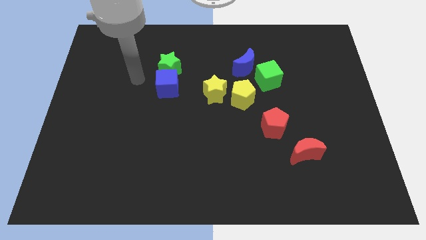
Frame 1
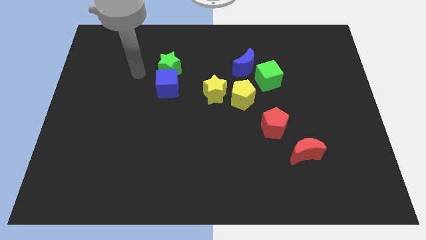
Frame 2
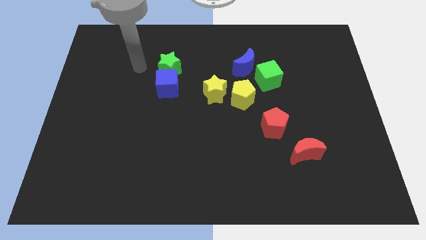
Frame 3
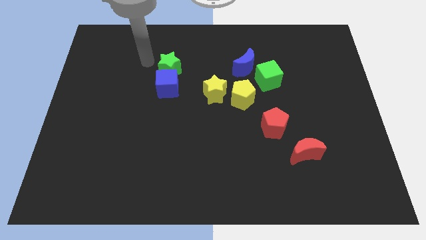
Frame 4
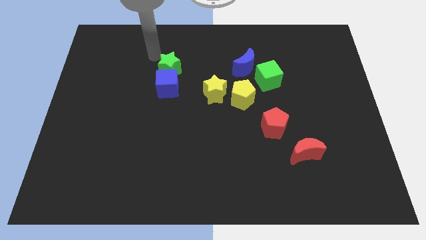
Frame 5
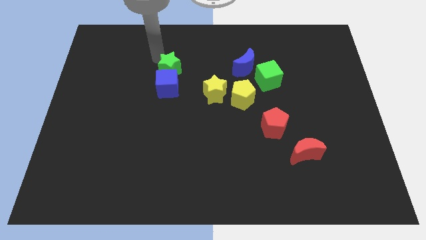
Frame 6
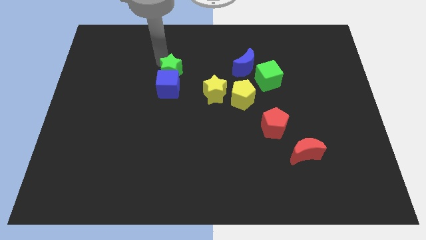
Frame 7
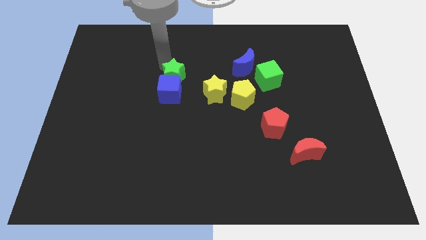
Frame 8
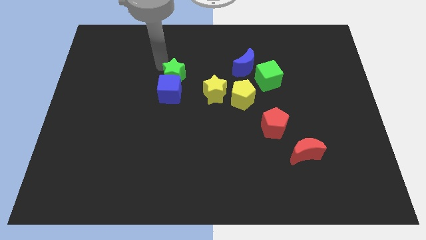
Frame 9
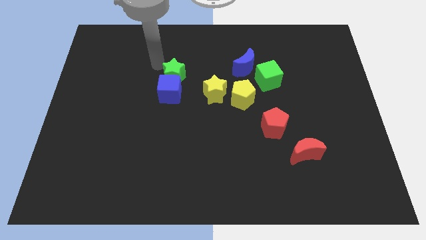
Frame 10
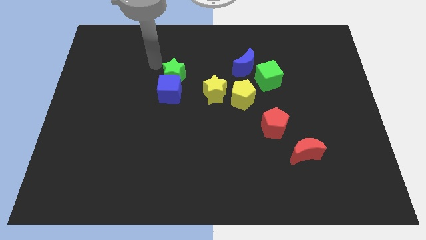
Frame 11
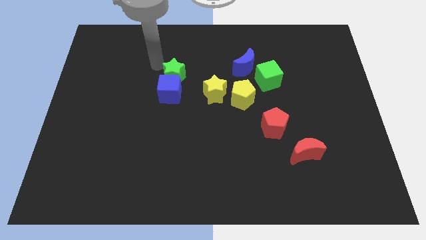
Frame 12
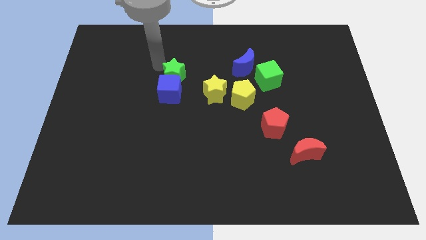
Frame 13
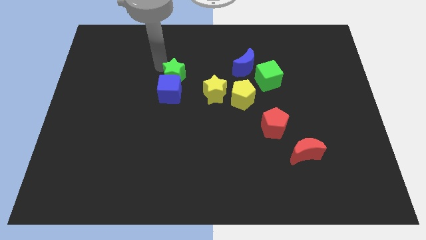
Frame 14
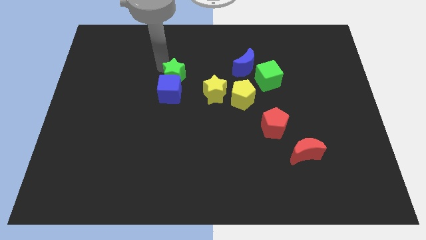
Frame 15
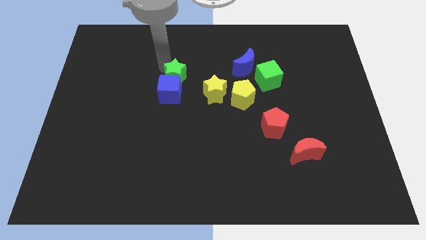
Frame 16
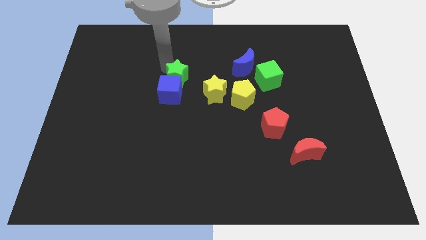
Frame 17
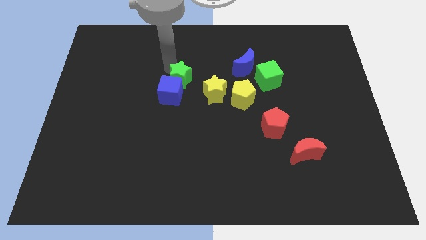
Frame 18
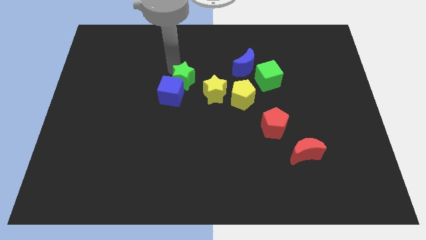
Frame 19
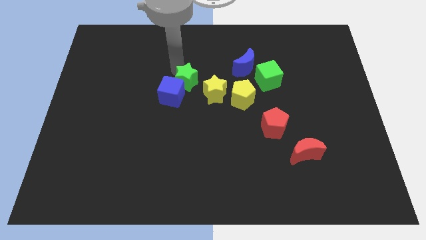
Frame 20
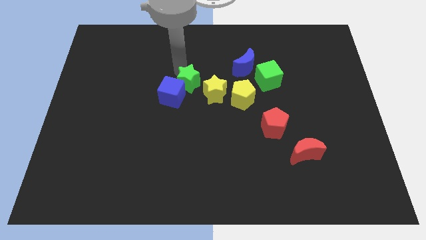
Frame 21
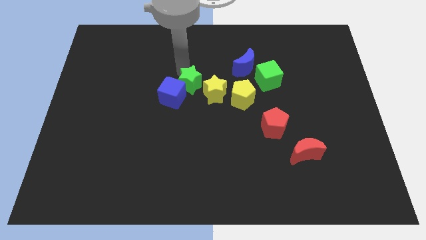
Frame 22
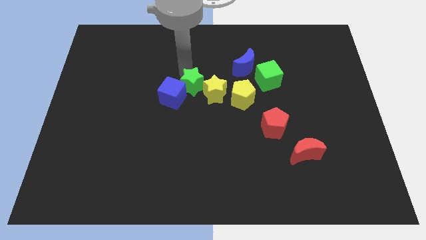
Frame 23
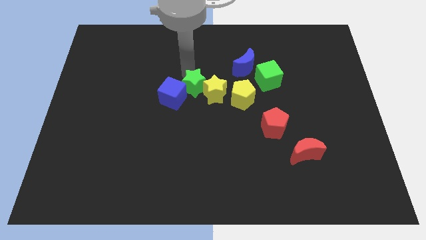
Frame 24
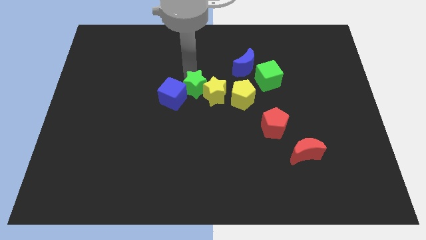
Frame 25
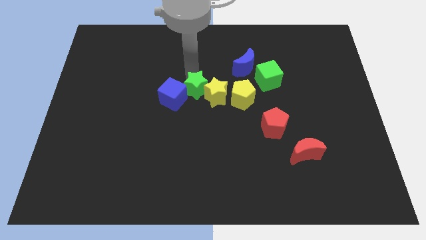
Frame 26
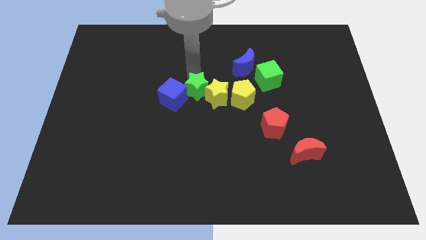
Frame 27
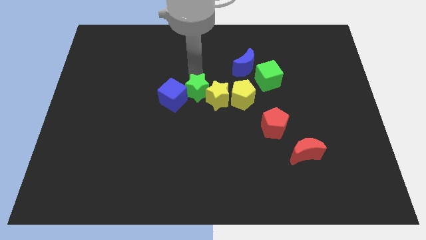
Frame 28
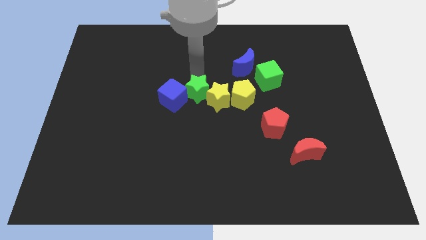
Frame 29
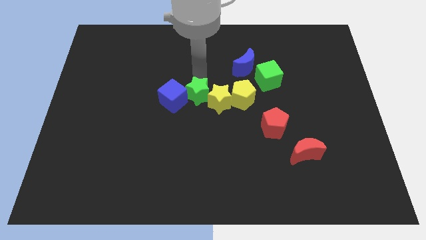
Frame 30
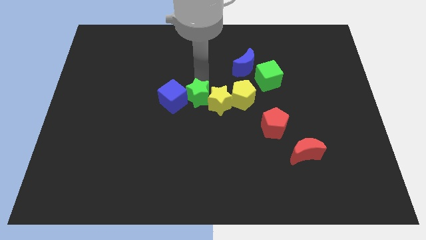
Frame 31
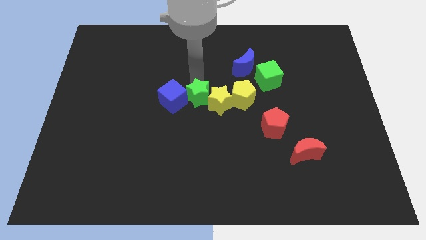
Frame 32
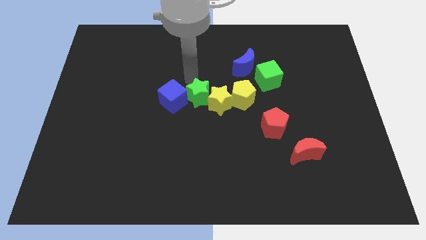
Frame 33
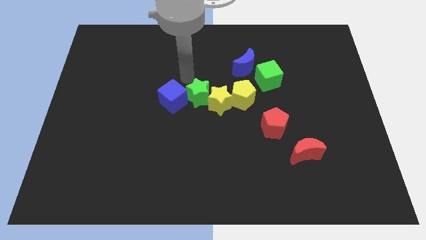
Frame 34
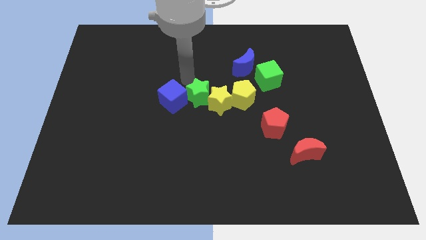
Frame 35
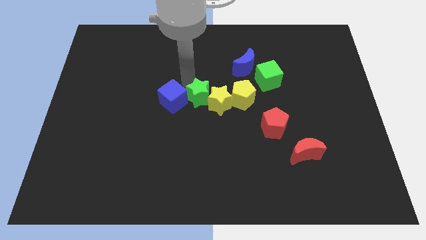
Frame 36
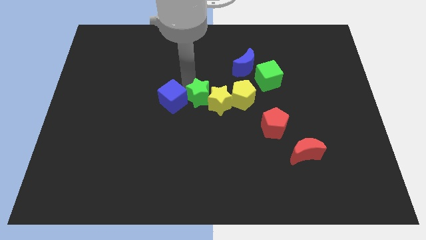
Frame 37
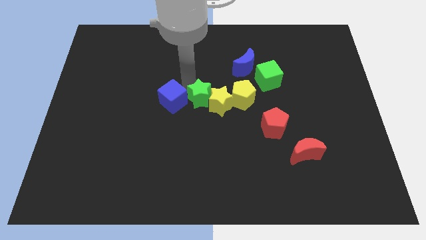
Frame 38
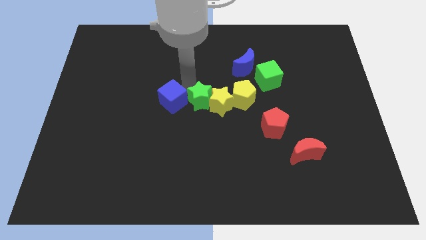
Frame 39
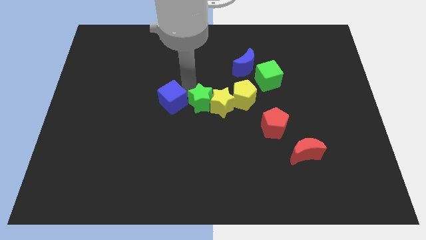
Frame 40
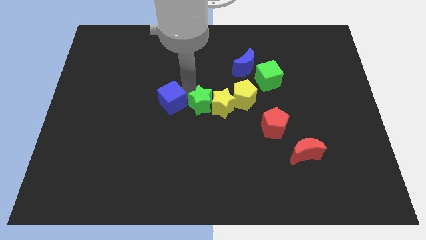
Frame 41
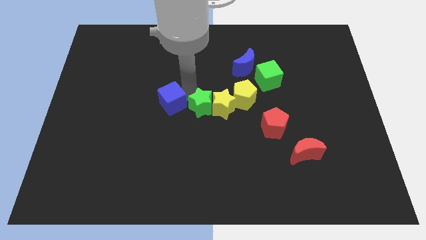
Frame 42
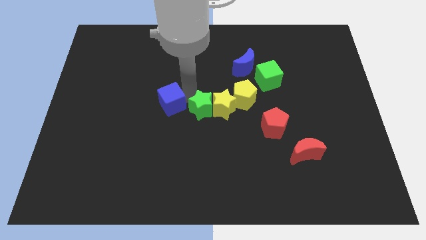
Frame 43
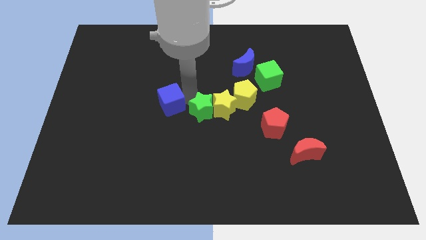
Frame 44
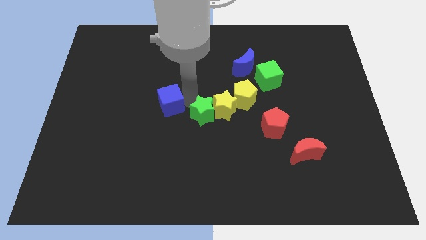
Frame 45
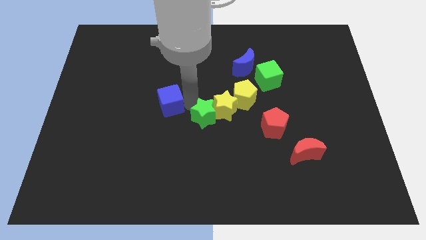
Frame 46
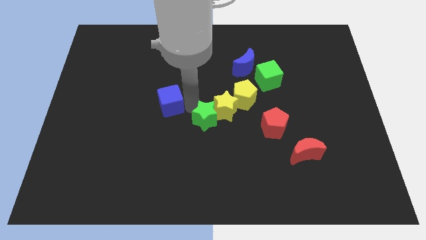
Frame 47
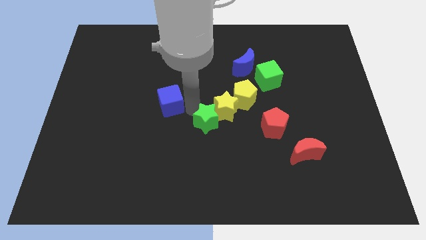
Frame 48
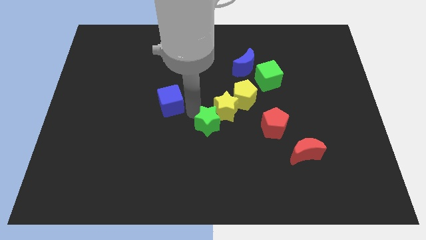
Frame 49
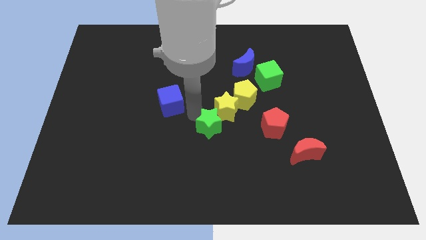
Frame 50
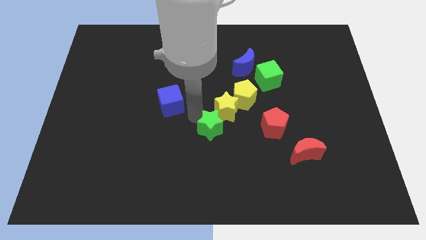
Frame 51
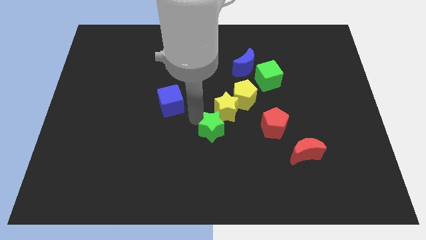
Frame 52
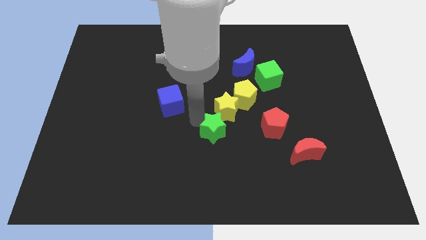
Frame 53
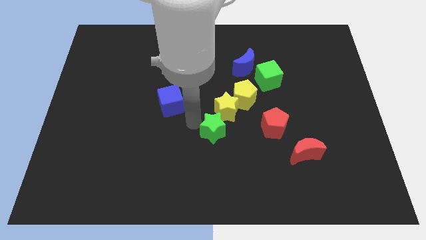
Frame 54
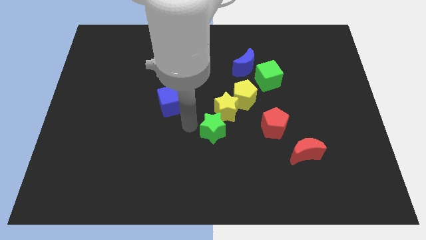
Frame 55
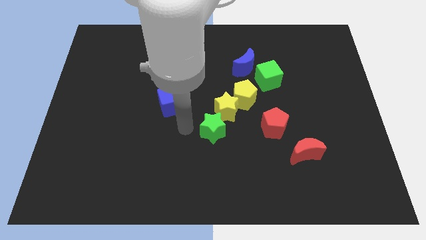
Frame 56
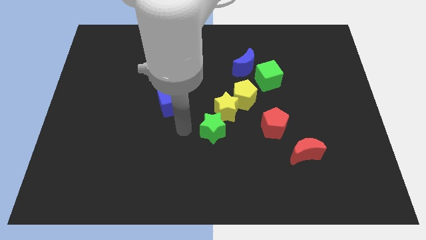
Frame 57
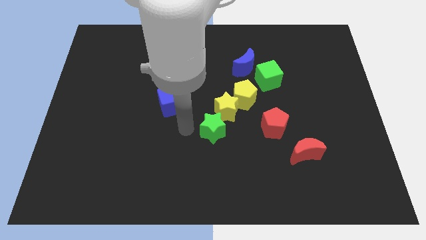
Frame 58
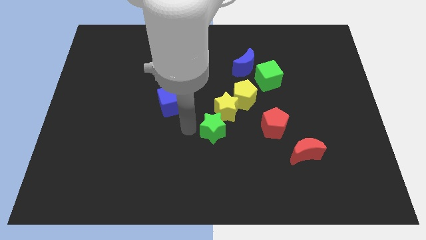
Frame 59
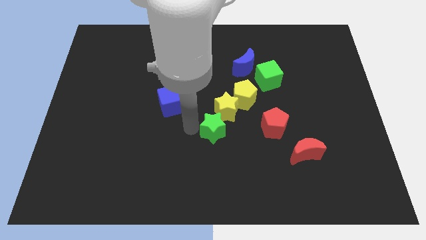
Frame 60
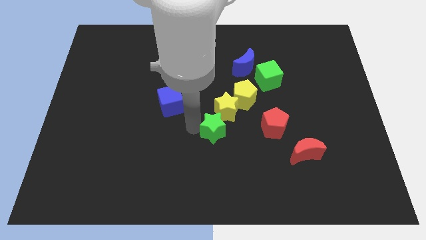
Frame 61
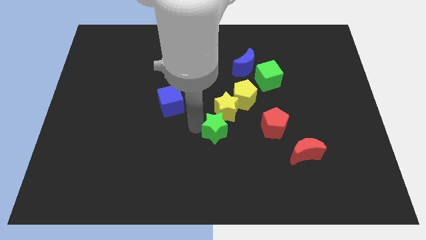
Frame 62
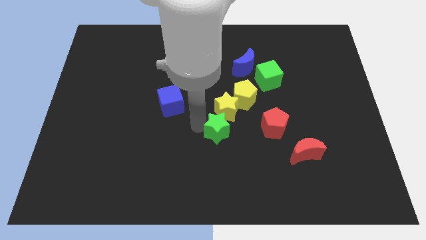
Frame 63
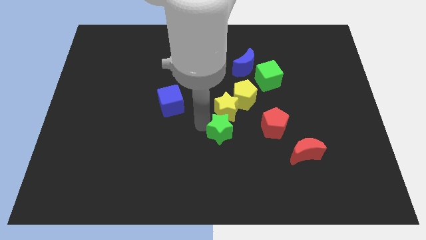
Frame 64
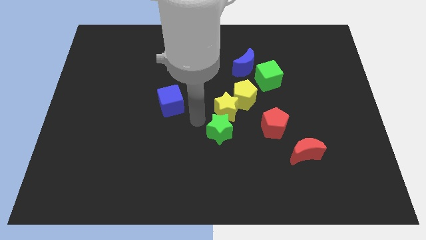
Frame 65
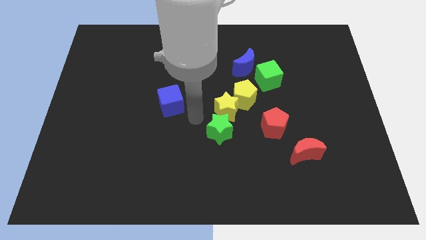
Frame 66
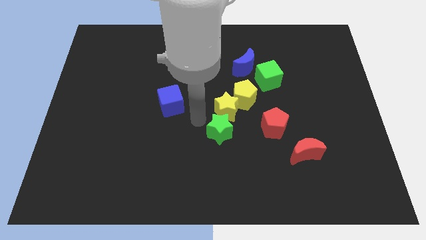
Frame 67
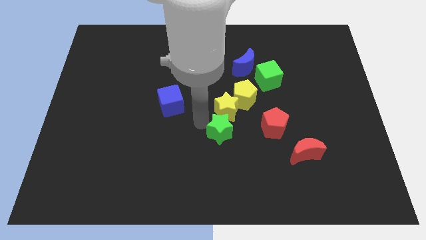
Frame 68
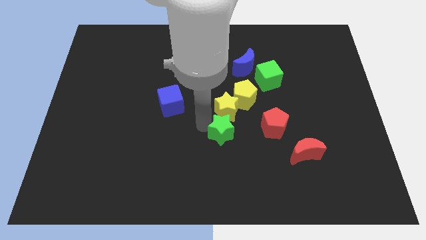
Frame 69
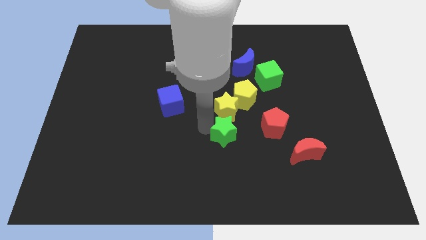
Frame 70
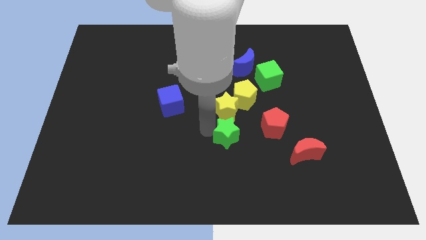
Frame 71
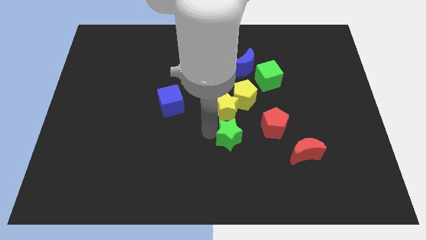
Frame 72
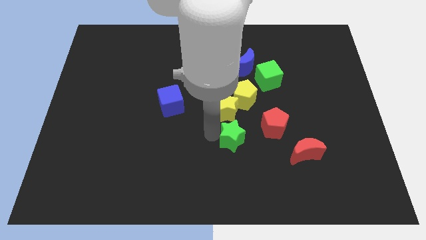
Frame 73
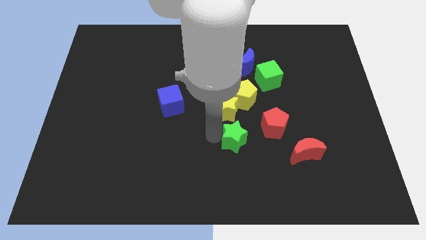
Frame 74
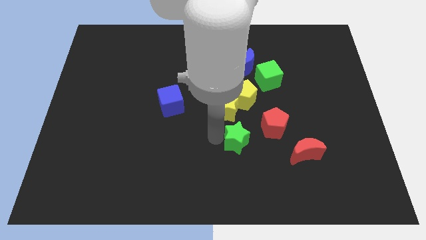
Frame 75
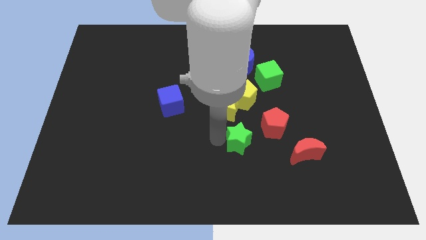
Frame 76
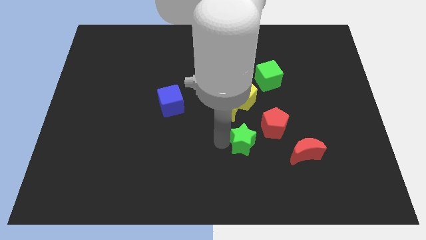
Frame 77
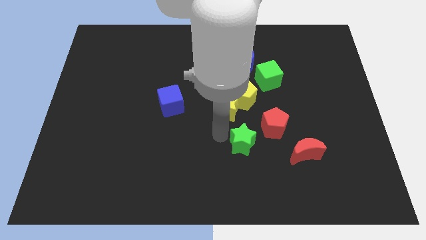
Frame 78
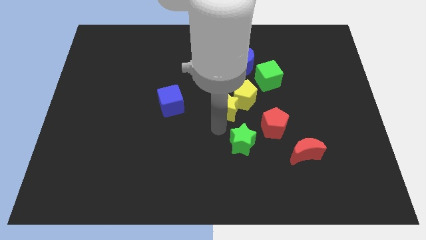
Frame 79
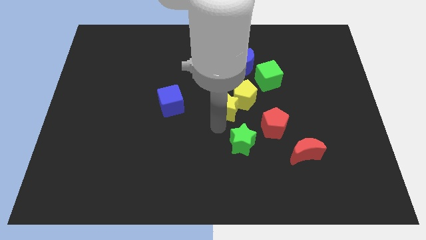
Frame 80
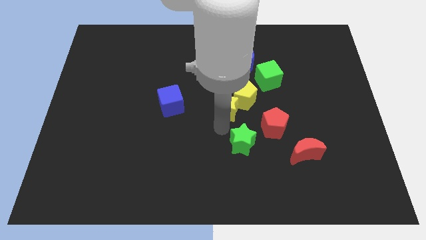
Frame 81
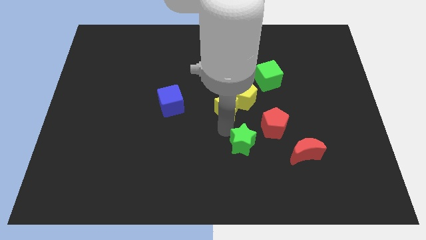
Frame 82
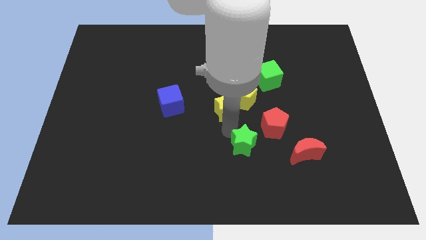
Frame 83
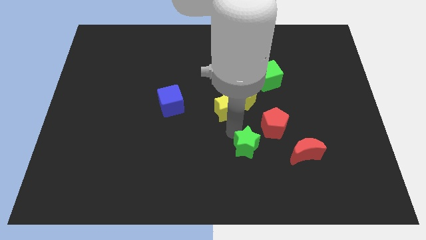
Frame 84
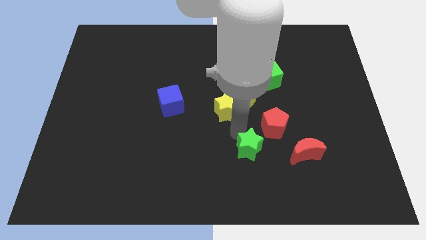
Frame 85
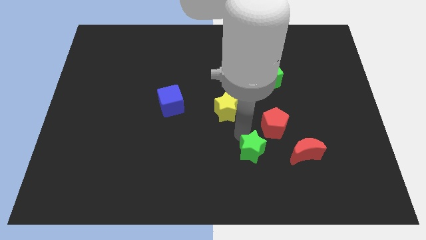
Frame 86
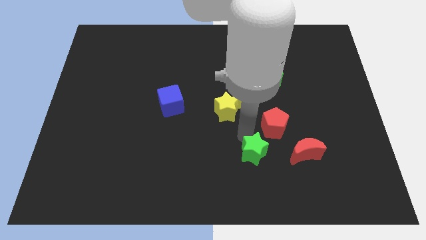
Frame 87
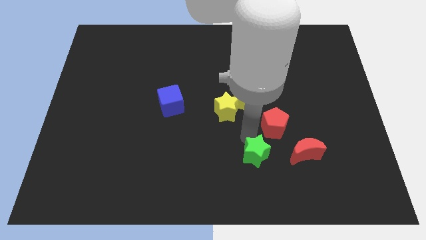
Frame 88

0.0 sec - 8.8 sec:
push the green star below the red pentagon
